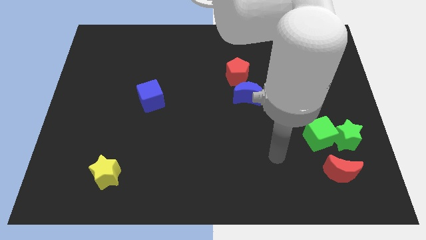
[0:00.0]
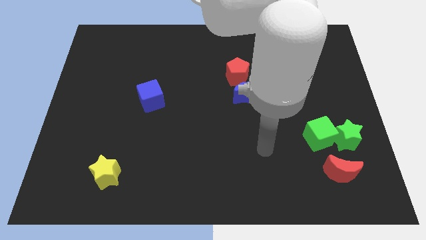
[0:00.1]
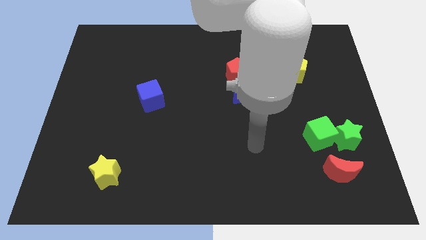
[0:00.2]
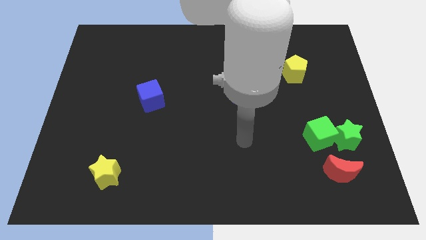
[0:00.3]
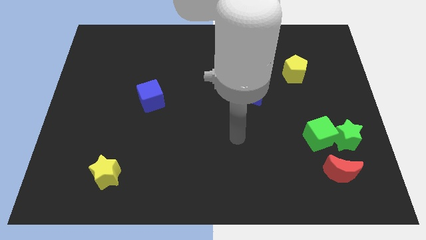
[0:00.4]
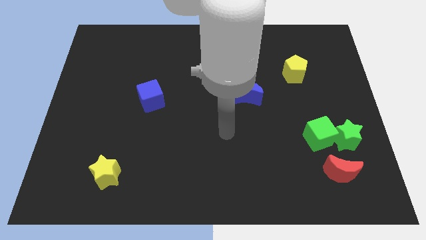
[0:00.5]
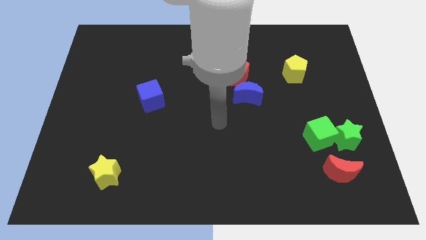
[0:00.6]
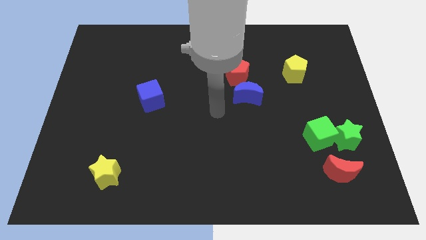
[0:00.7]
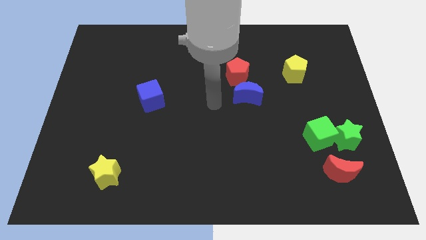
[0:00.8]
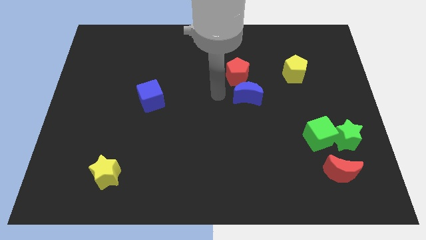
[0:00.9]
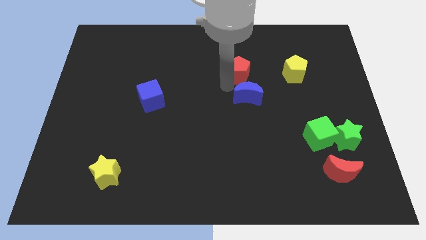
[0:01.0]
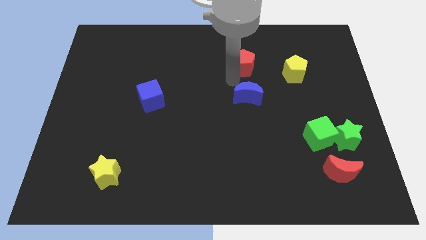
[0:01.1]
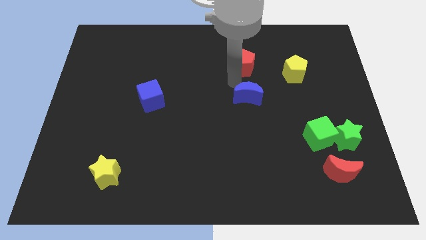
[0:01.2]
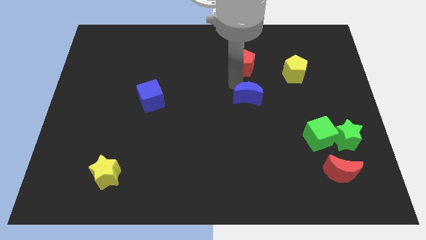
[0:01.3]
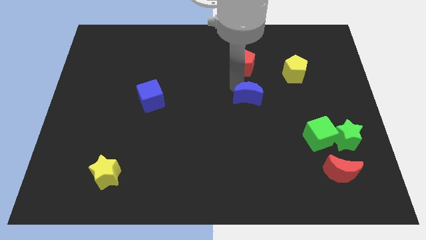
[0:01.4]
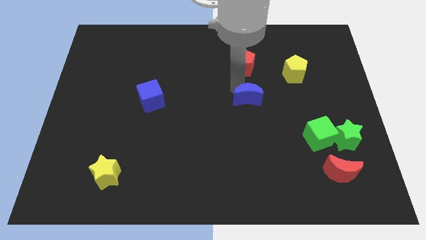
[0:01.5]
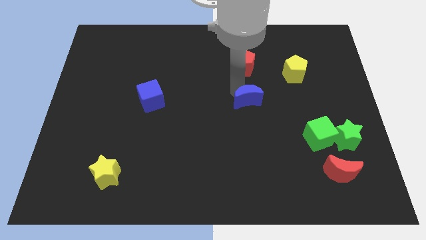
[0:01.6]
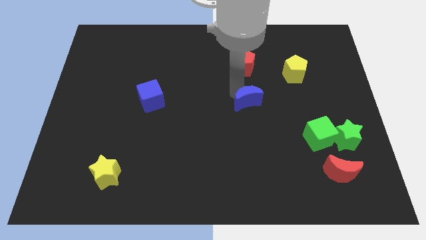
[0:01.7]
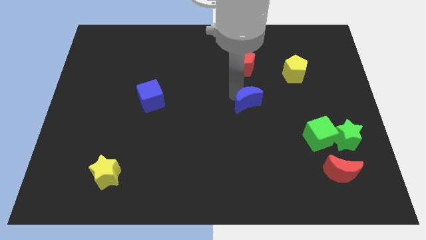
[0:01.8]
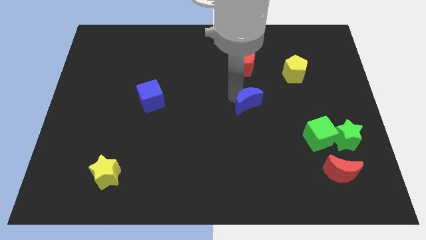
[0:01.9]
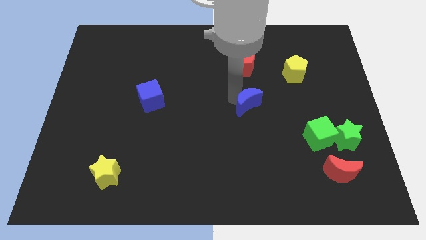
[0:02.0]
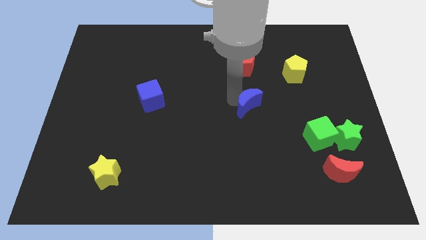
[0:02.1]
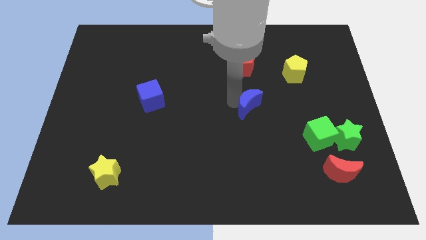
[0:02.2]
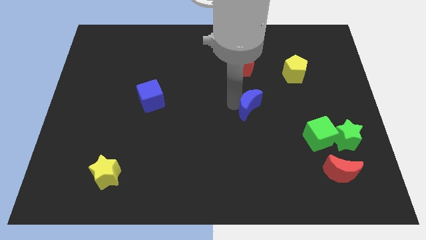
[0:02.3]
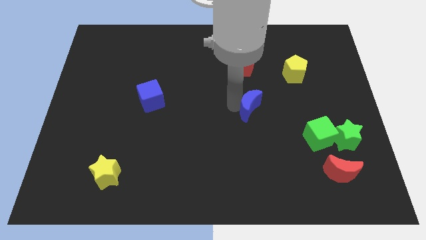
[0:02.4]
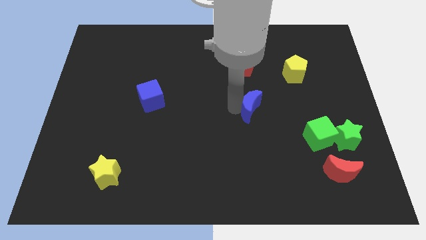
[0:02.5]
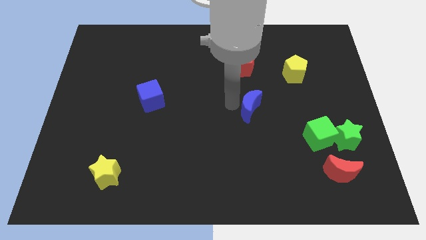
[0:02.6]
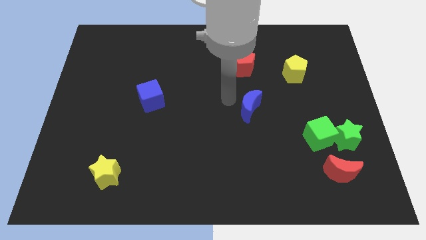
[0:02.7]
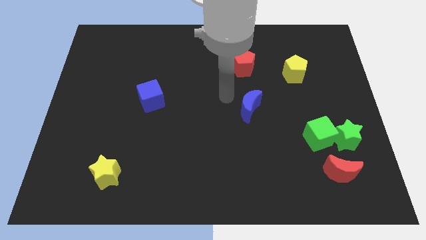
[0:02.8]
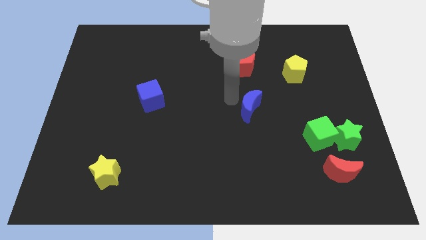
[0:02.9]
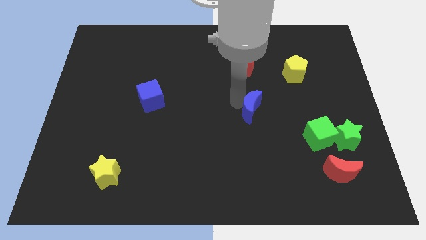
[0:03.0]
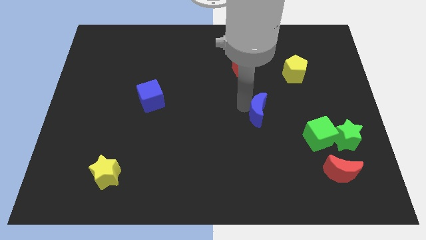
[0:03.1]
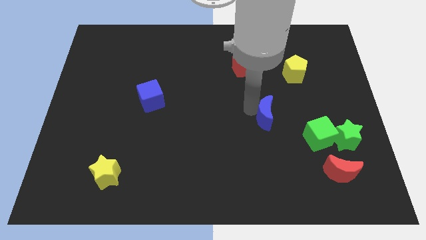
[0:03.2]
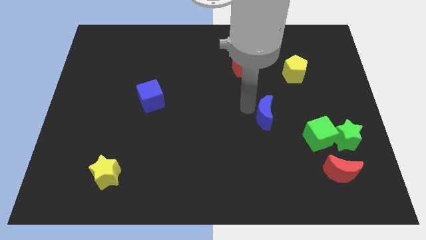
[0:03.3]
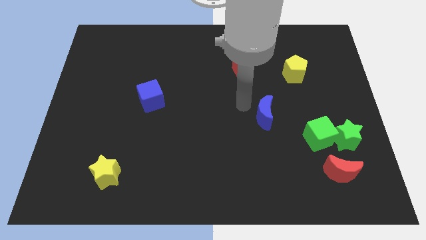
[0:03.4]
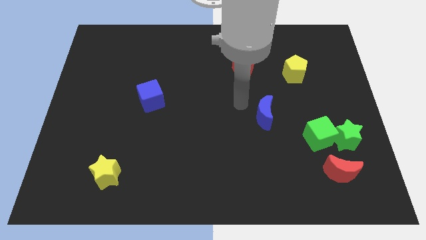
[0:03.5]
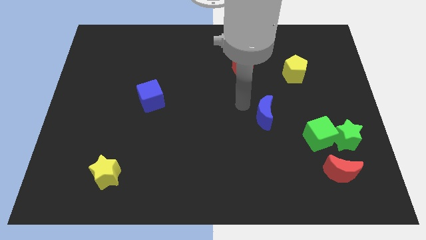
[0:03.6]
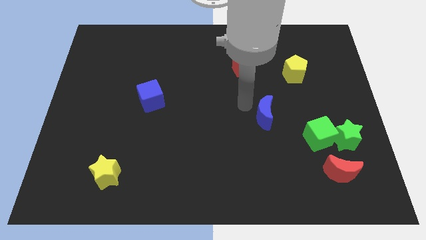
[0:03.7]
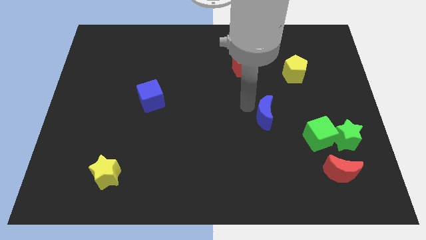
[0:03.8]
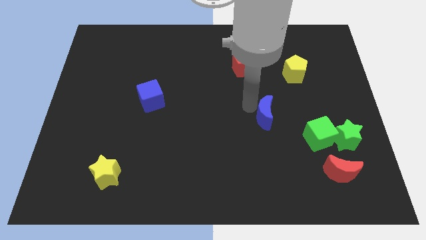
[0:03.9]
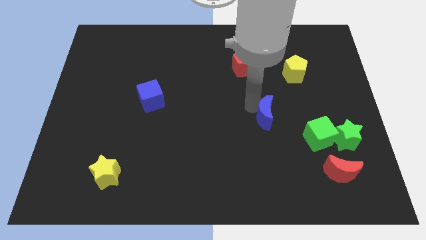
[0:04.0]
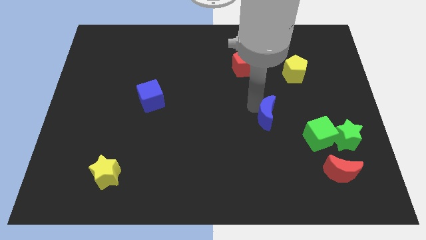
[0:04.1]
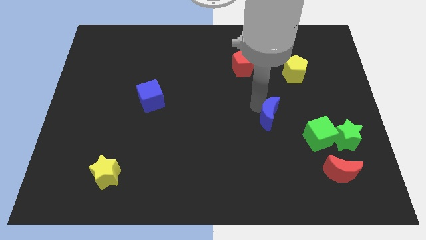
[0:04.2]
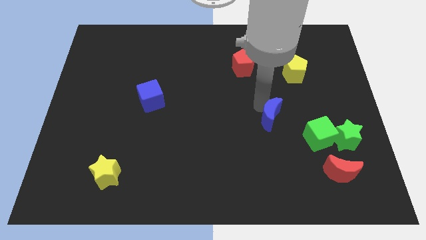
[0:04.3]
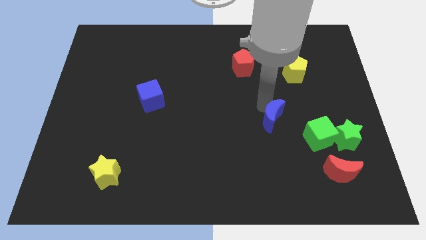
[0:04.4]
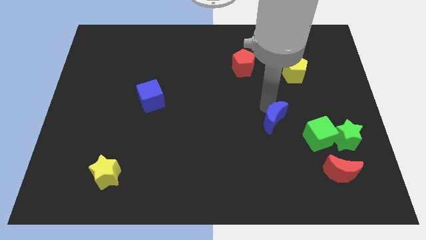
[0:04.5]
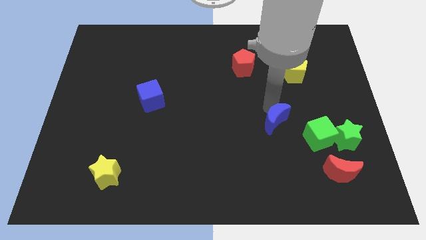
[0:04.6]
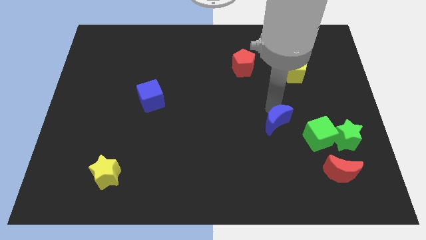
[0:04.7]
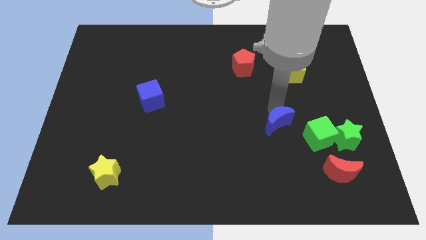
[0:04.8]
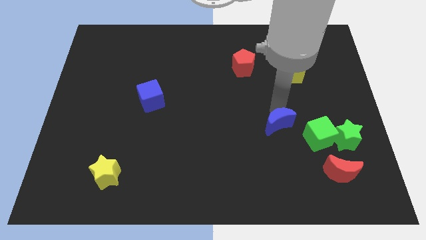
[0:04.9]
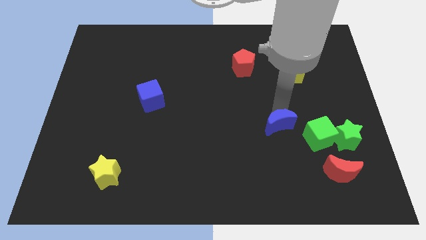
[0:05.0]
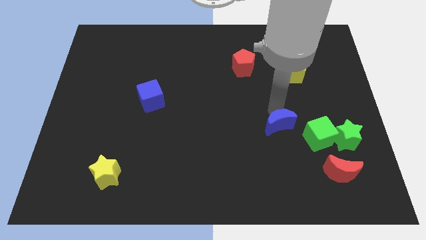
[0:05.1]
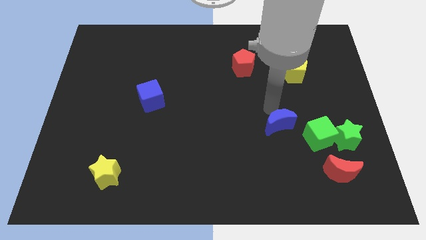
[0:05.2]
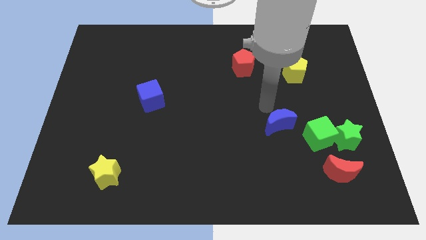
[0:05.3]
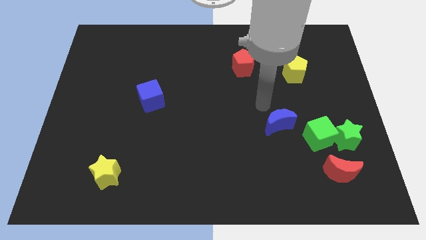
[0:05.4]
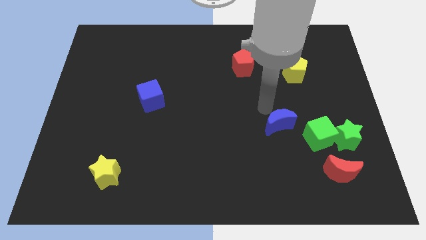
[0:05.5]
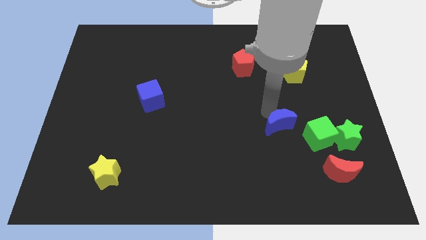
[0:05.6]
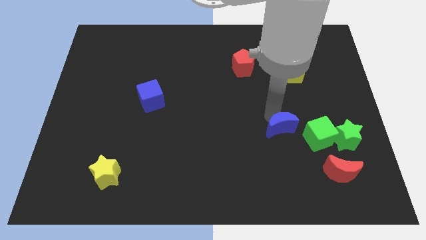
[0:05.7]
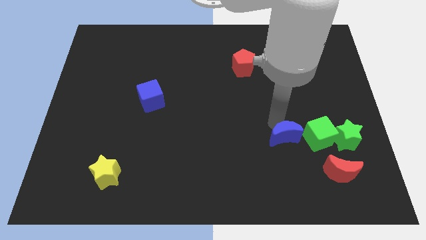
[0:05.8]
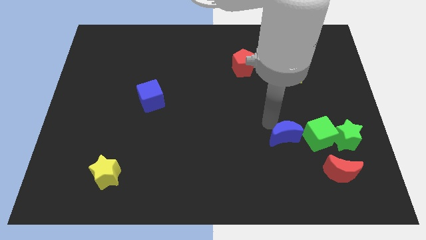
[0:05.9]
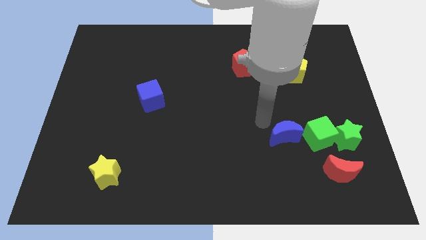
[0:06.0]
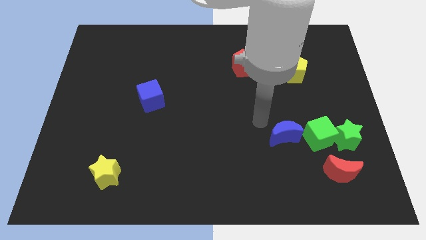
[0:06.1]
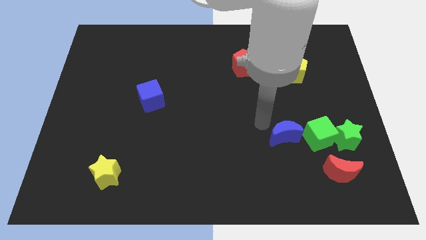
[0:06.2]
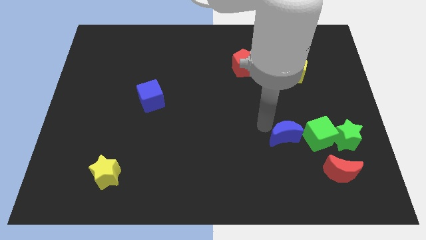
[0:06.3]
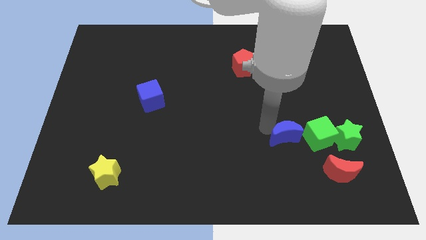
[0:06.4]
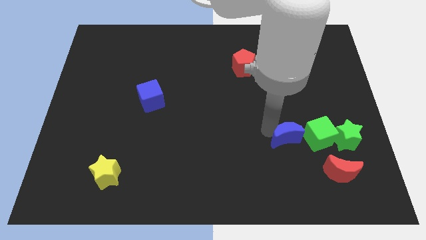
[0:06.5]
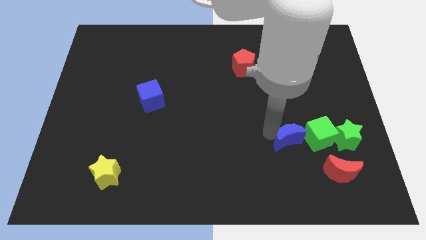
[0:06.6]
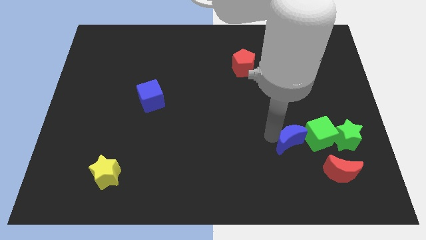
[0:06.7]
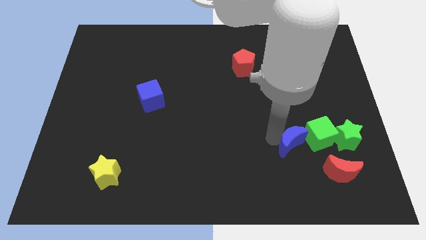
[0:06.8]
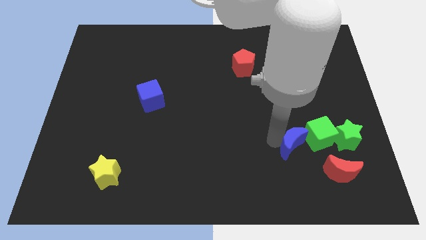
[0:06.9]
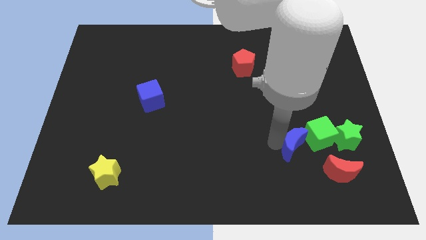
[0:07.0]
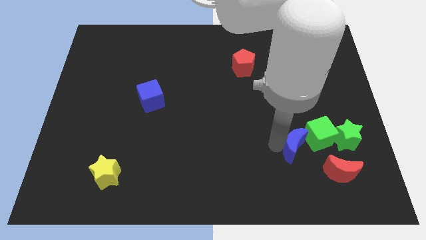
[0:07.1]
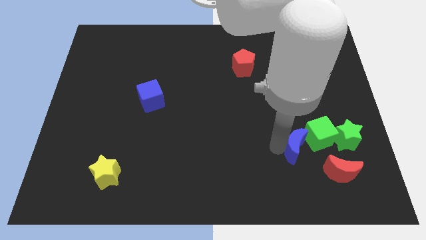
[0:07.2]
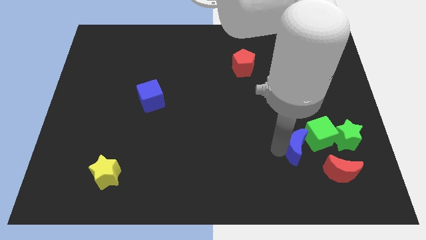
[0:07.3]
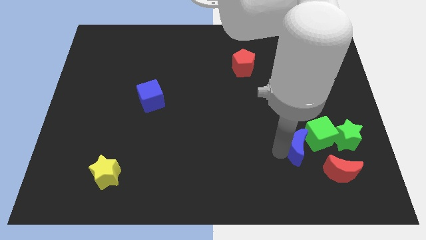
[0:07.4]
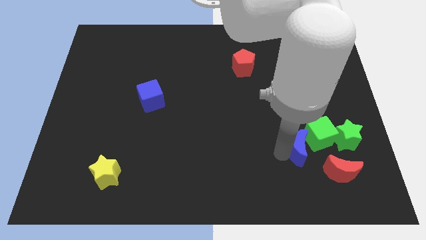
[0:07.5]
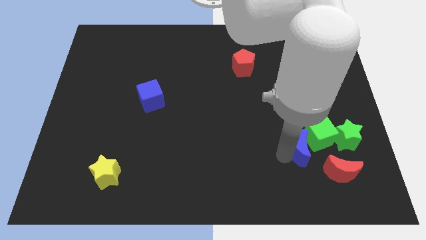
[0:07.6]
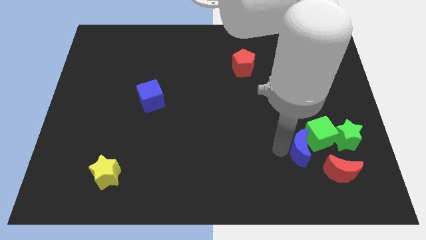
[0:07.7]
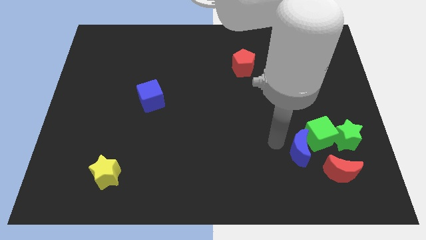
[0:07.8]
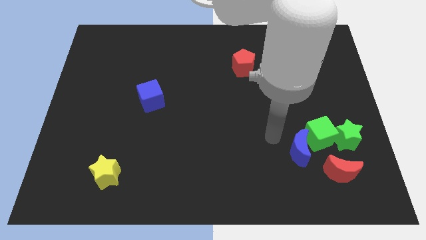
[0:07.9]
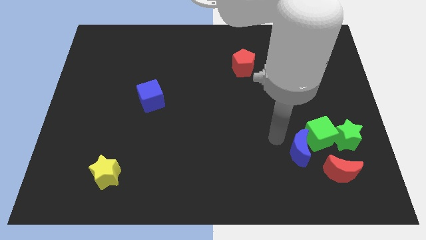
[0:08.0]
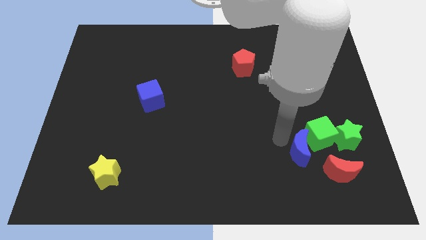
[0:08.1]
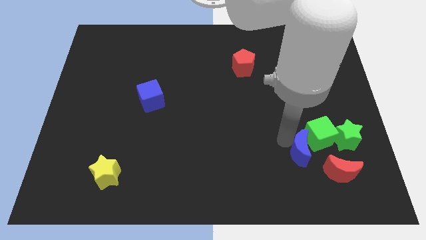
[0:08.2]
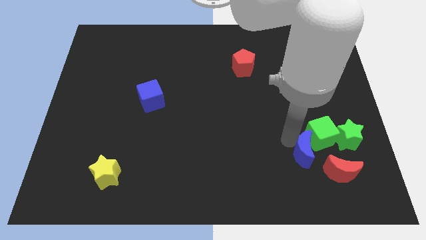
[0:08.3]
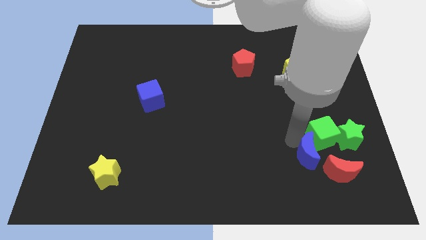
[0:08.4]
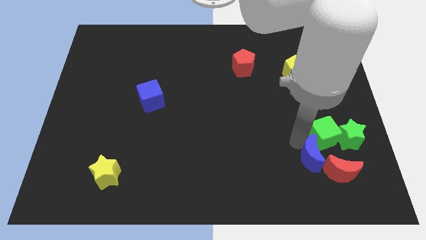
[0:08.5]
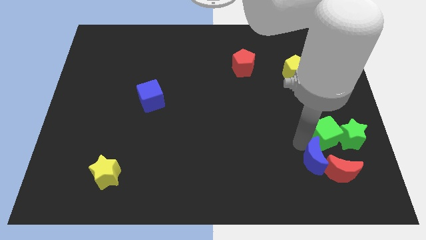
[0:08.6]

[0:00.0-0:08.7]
put the blue moon close to the red moon
